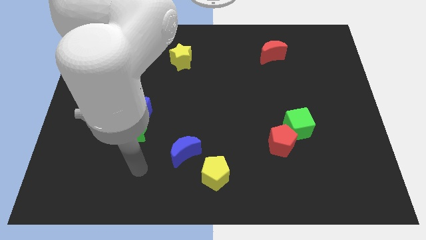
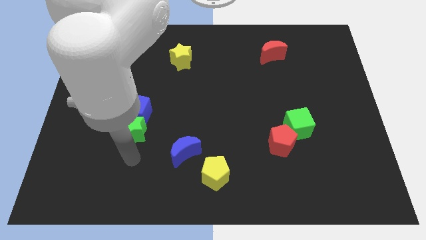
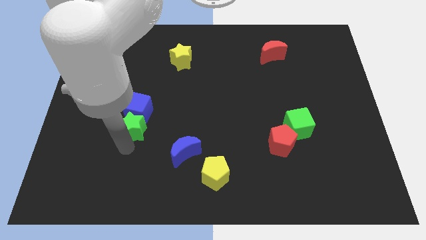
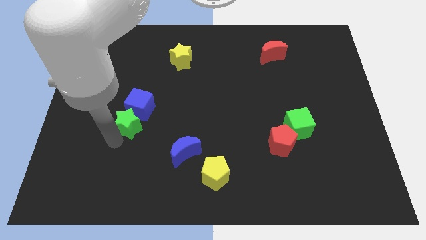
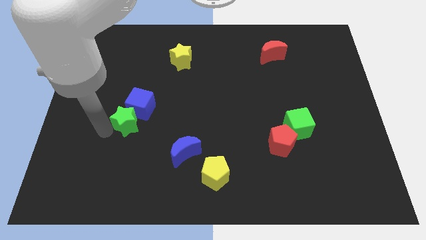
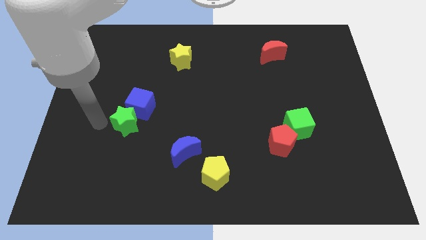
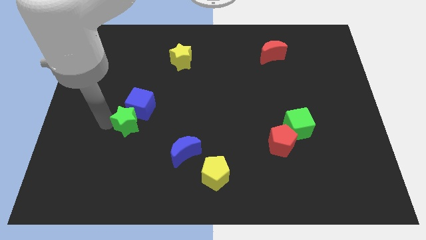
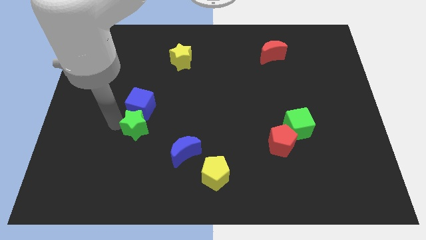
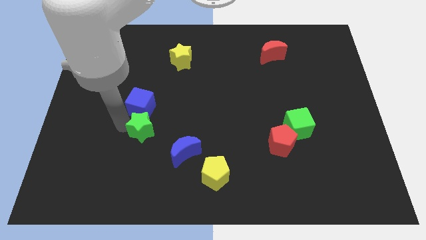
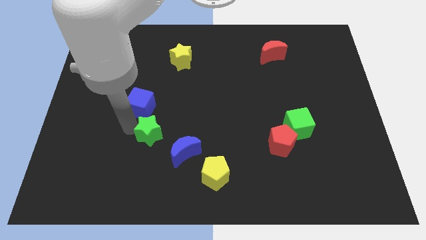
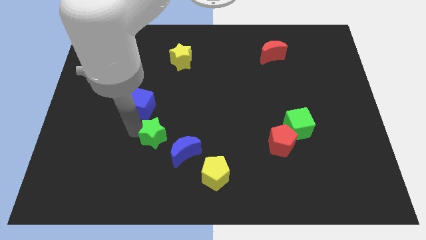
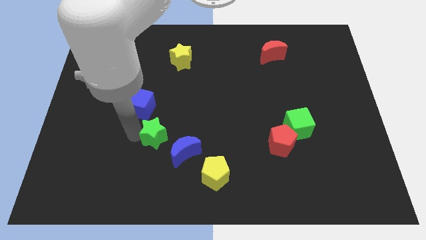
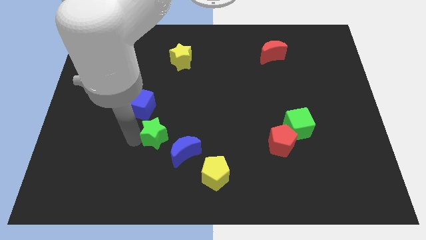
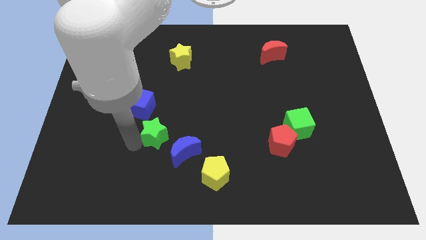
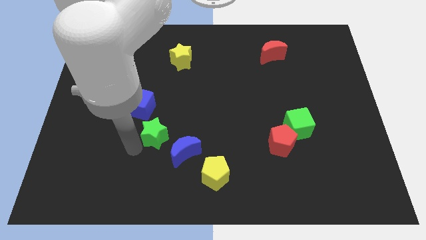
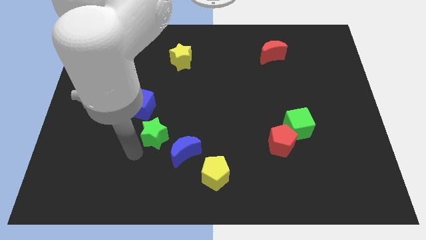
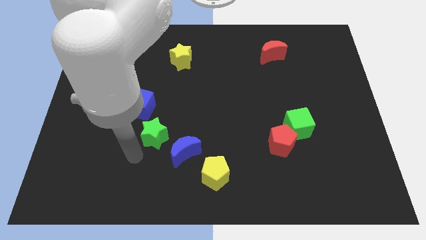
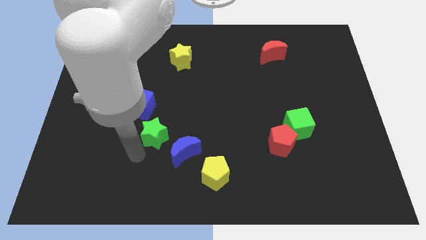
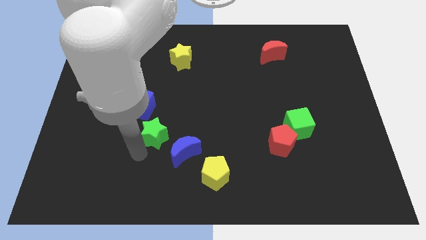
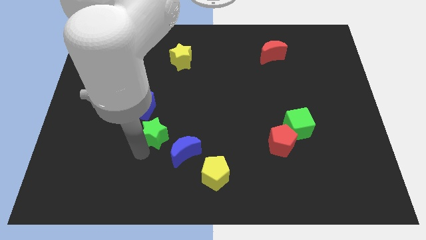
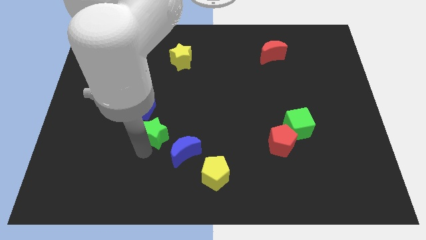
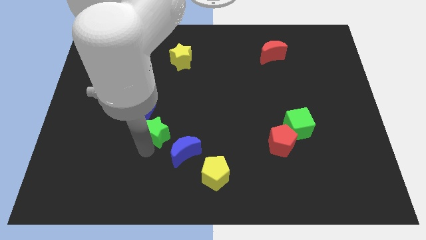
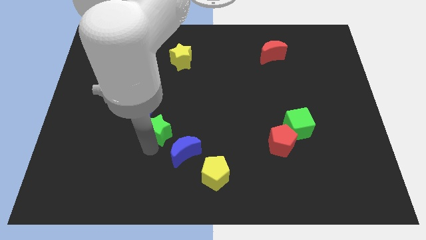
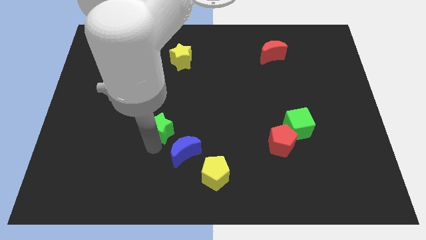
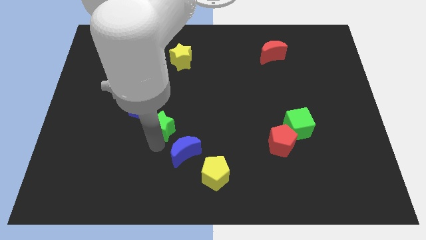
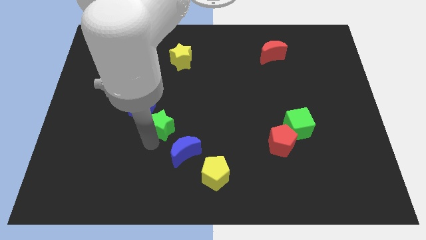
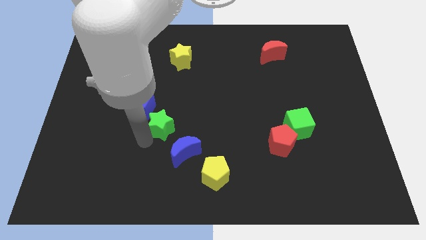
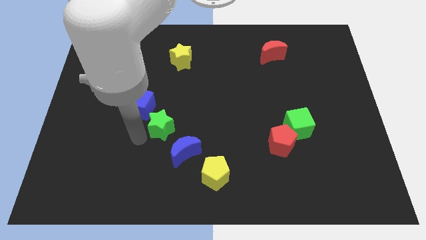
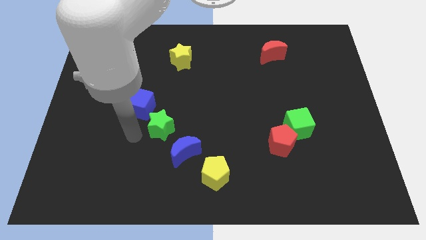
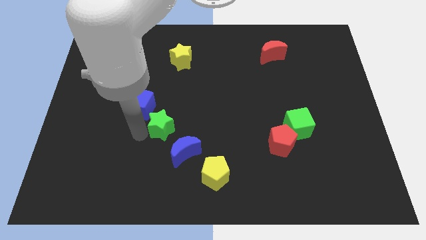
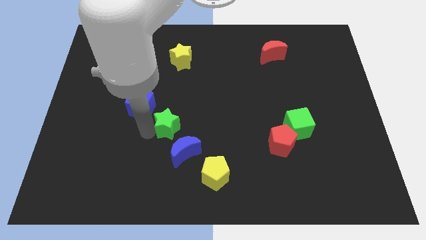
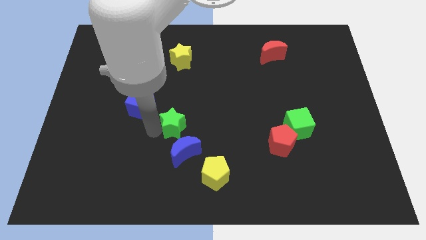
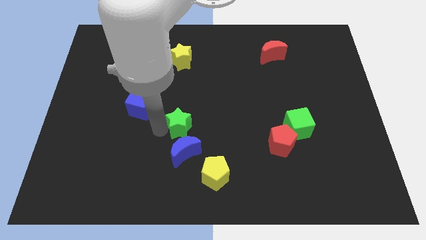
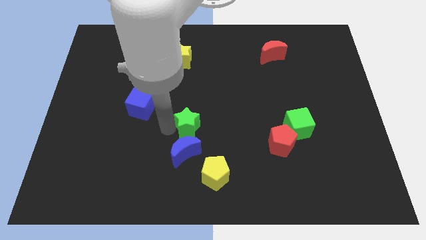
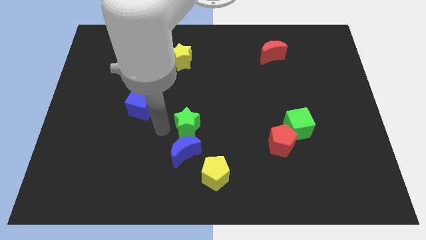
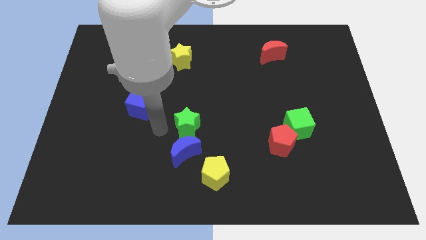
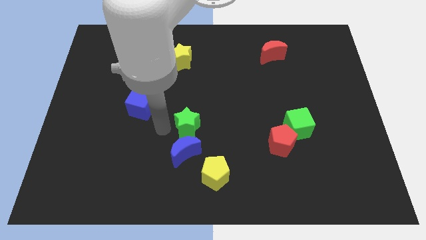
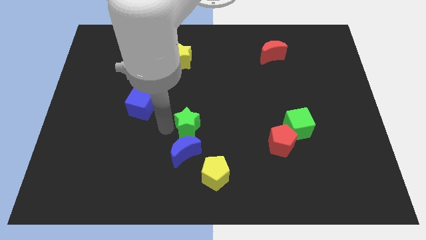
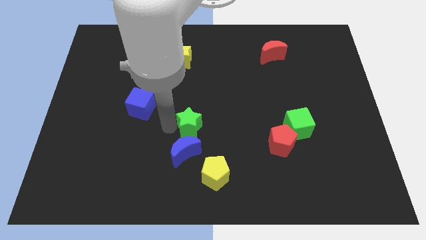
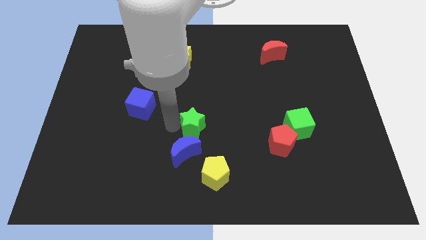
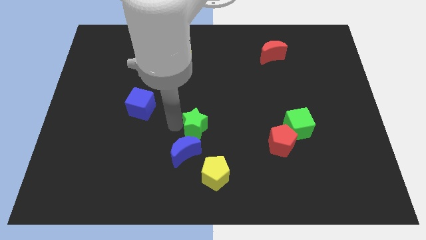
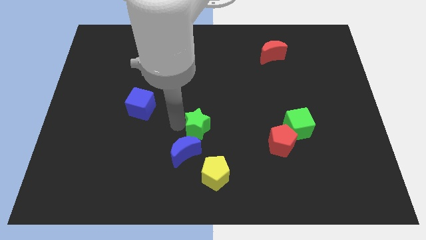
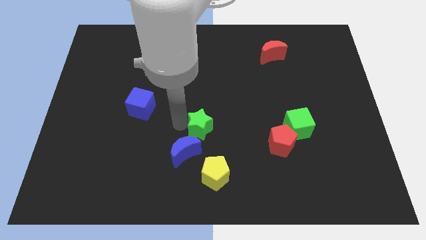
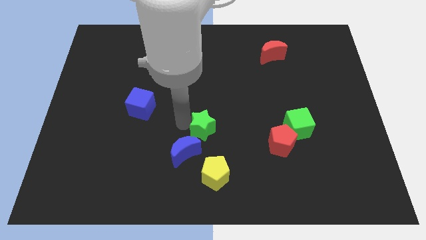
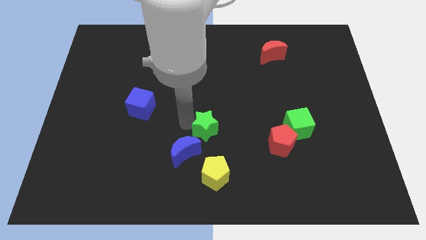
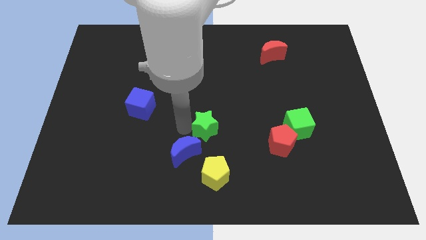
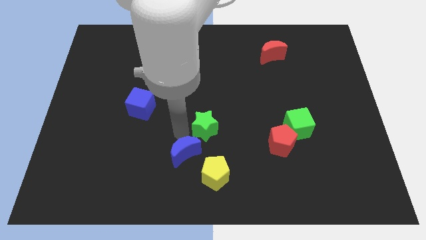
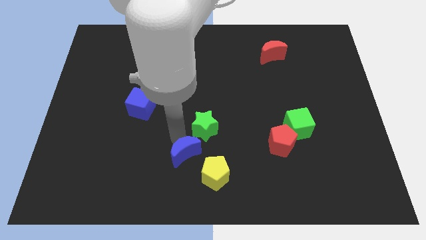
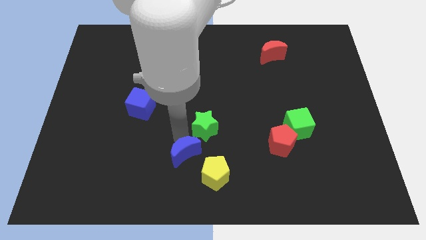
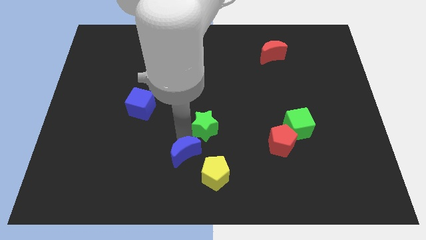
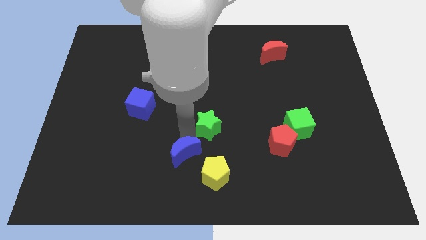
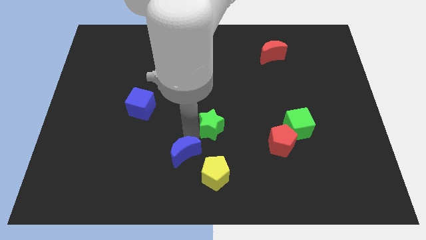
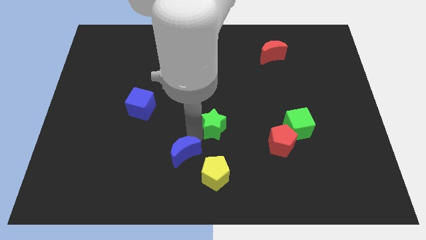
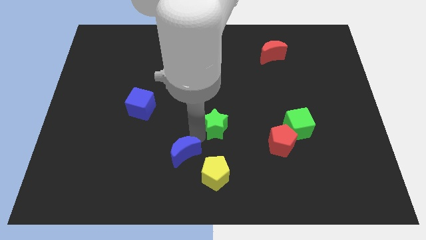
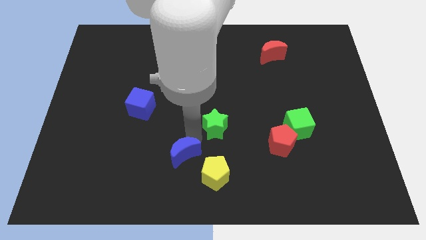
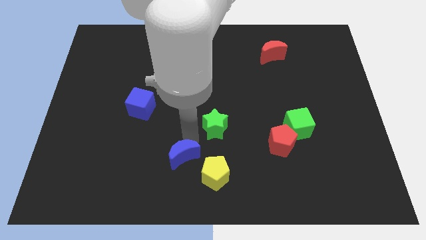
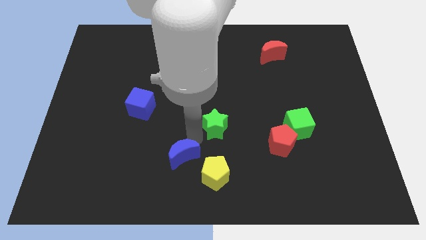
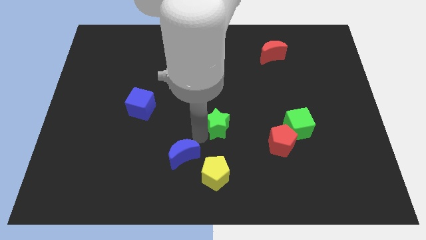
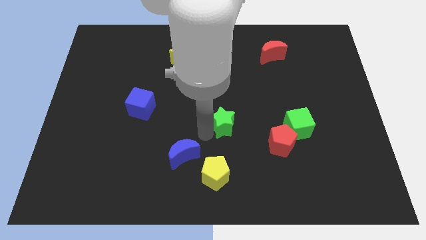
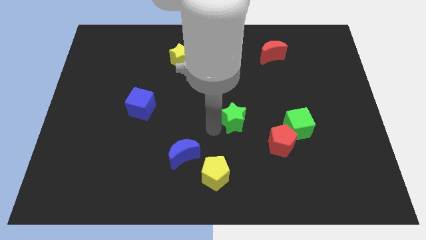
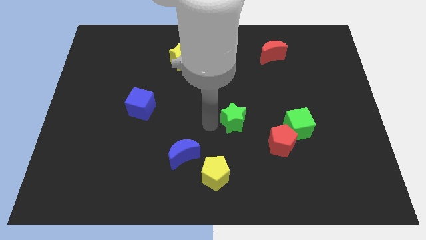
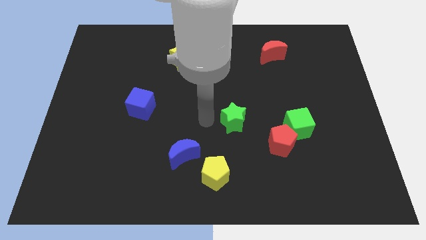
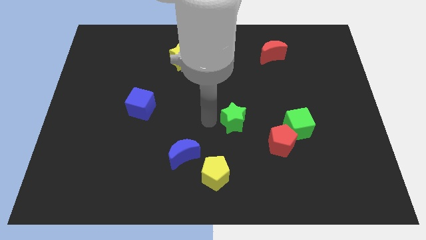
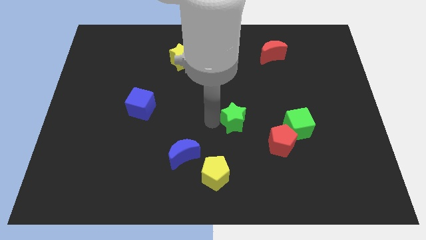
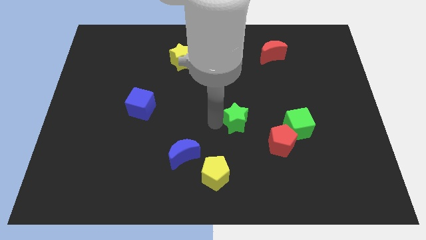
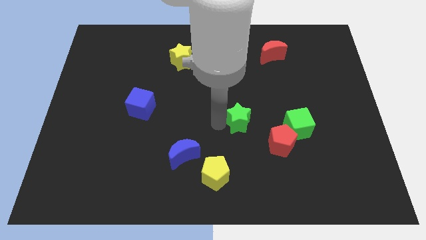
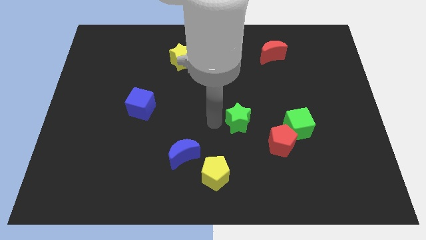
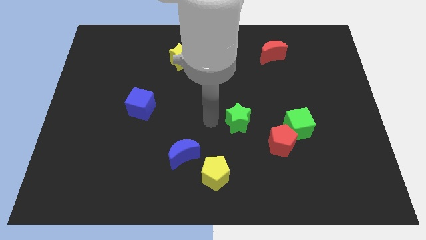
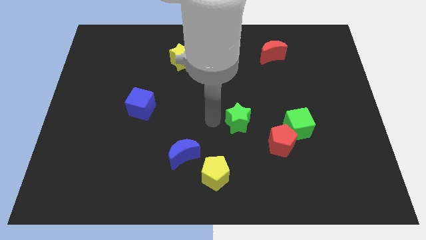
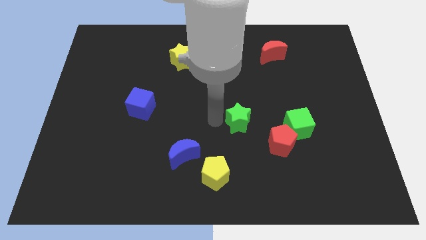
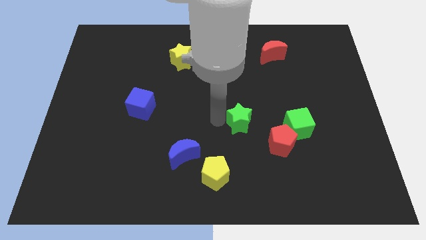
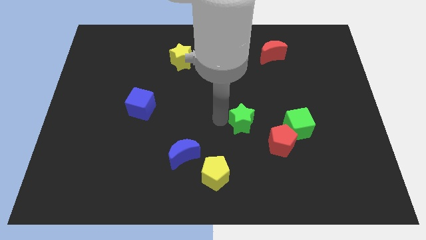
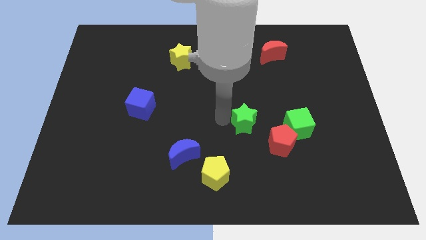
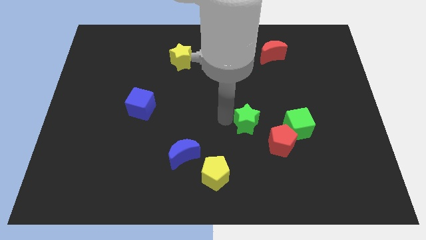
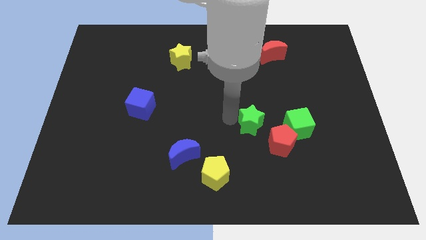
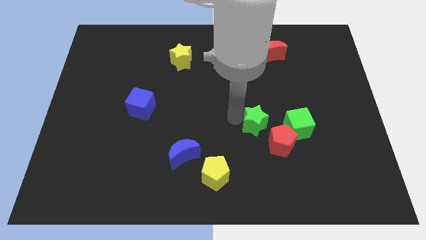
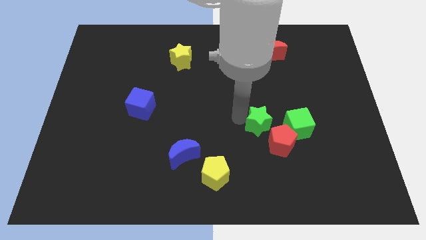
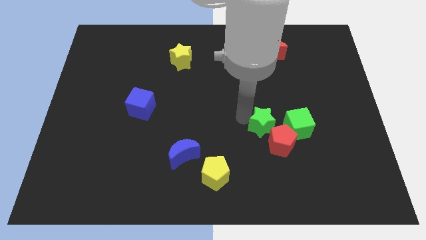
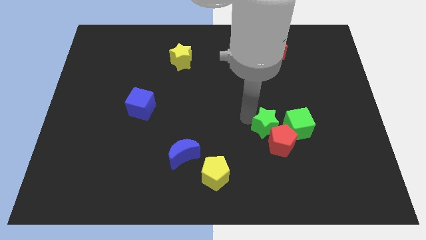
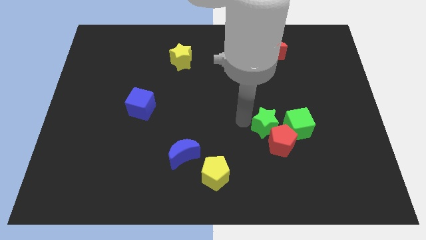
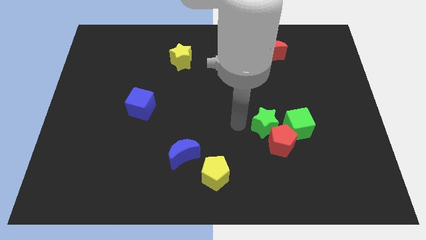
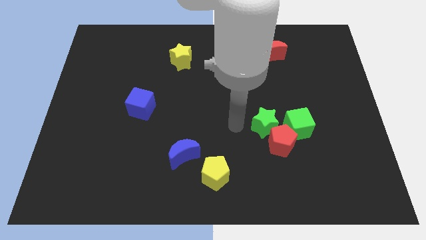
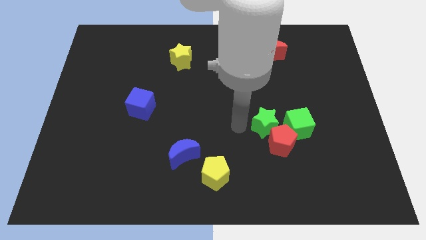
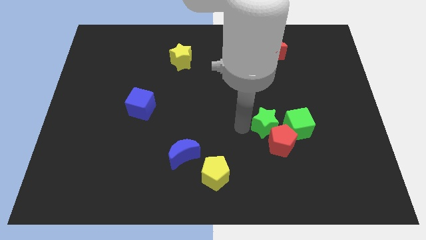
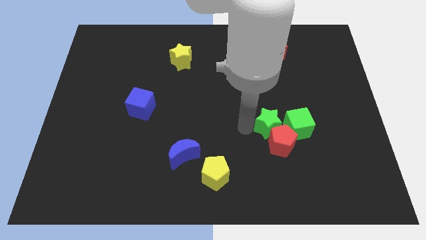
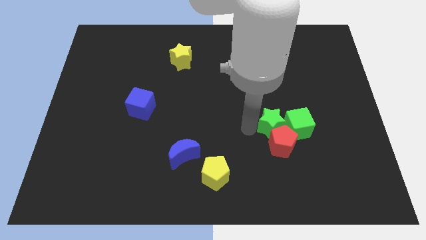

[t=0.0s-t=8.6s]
move the green star next to the green cube
